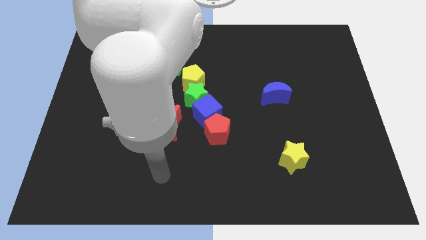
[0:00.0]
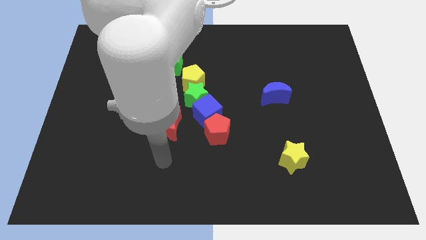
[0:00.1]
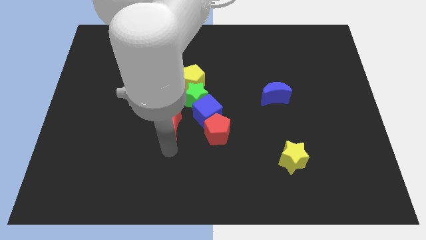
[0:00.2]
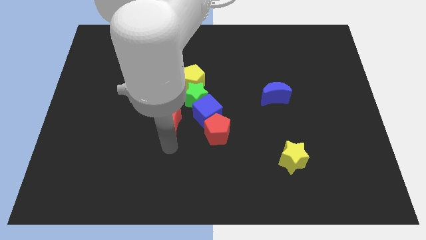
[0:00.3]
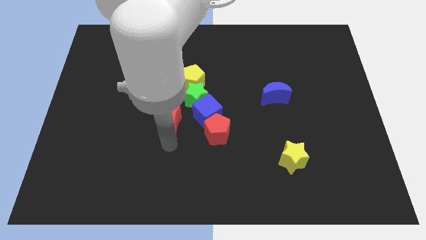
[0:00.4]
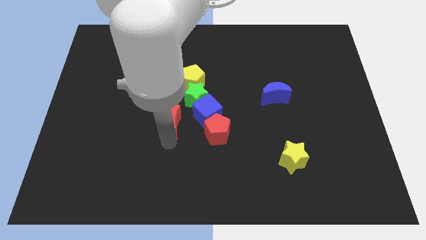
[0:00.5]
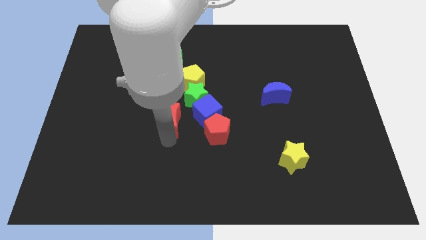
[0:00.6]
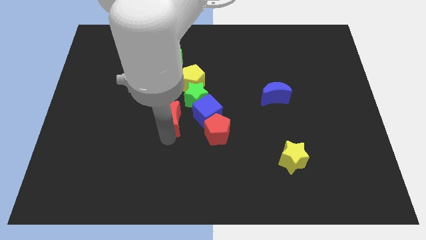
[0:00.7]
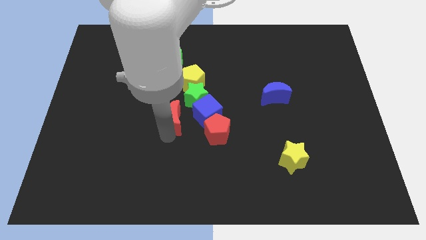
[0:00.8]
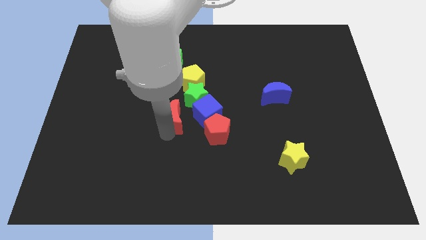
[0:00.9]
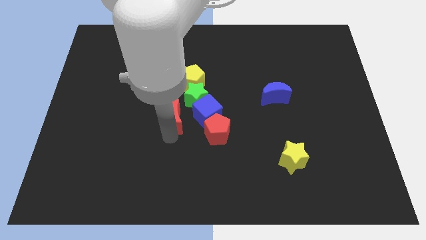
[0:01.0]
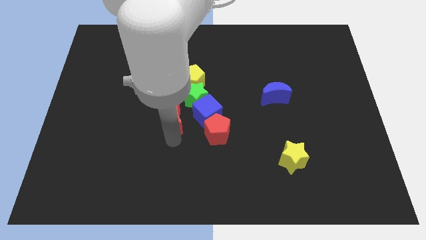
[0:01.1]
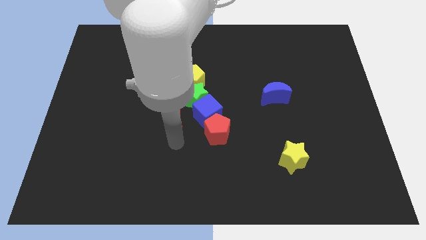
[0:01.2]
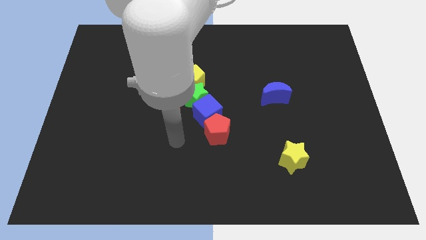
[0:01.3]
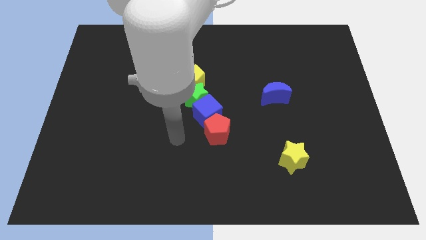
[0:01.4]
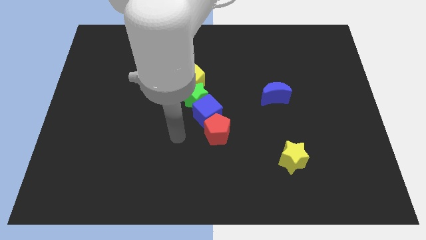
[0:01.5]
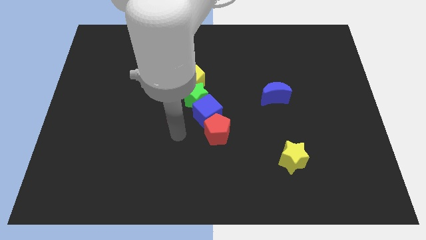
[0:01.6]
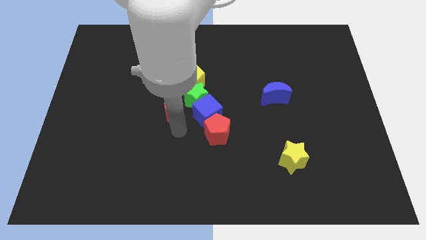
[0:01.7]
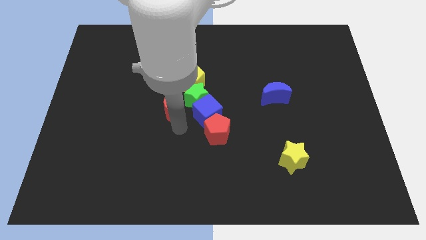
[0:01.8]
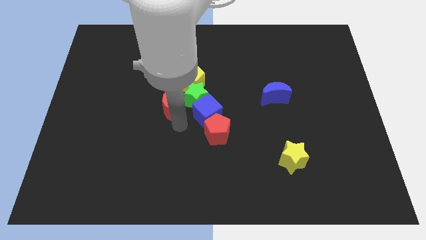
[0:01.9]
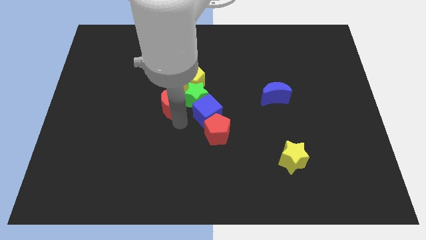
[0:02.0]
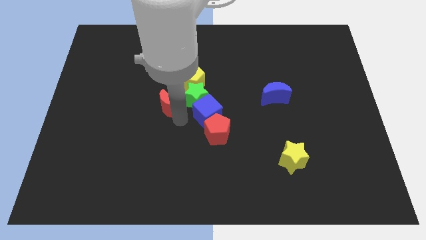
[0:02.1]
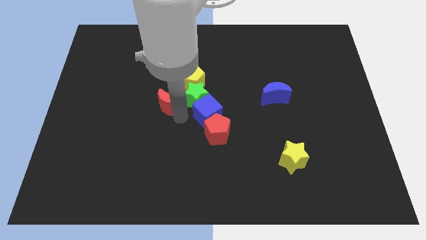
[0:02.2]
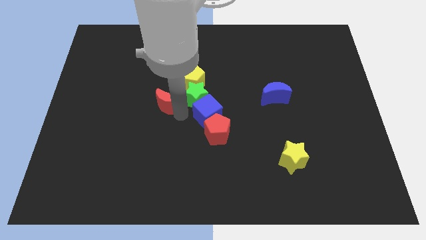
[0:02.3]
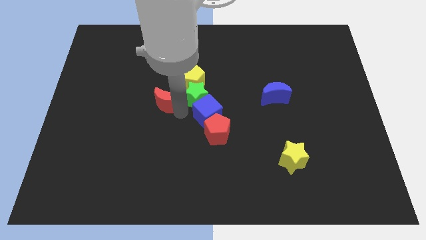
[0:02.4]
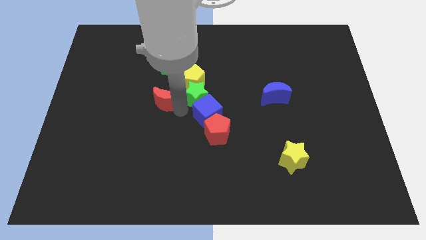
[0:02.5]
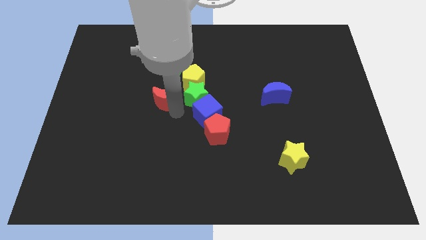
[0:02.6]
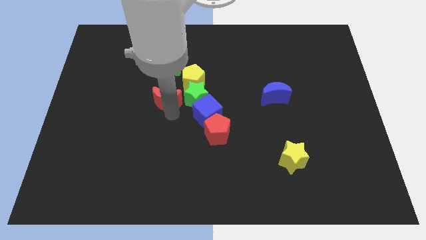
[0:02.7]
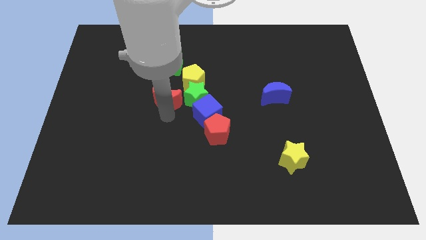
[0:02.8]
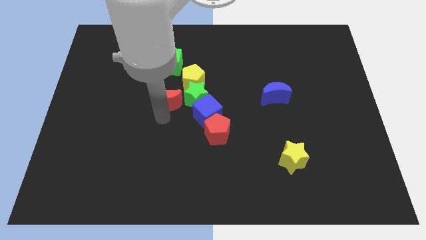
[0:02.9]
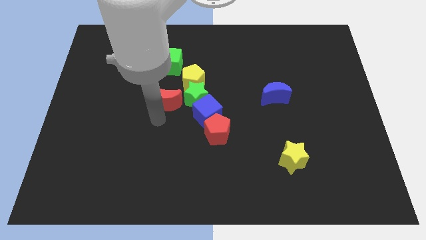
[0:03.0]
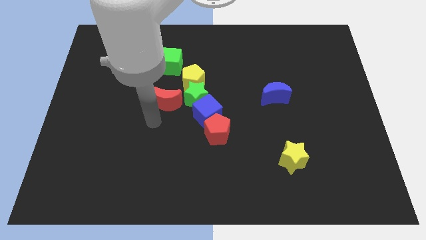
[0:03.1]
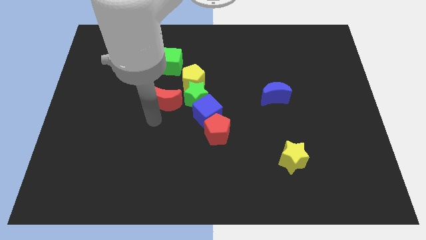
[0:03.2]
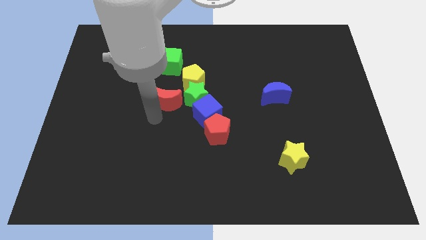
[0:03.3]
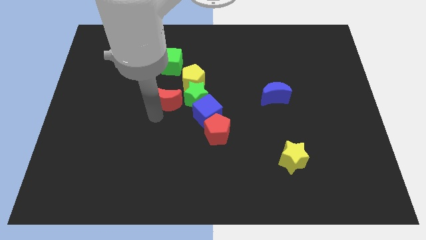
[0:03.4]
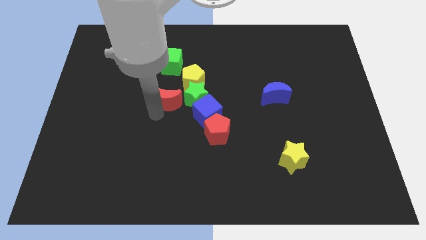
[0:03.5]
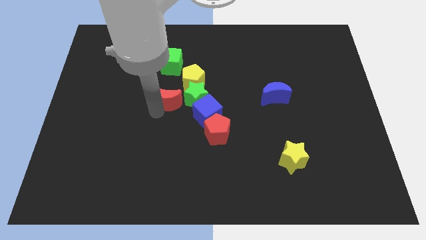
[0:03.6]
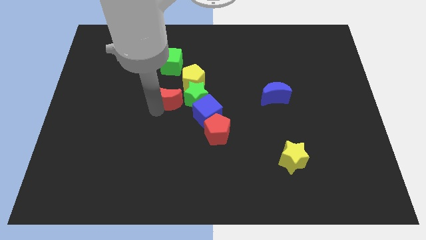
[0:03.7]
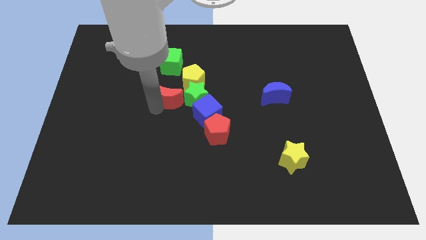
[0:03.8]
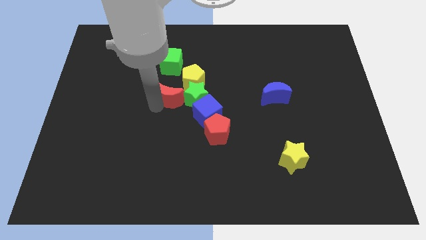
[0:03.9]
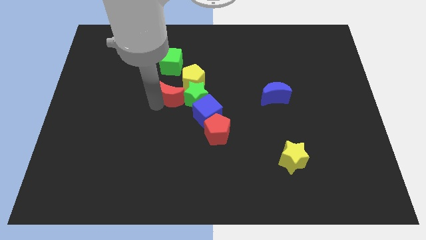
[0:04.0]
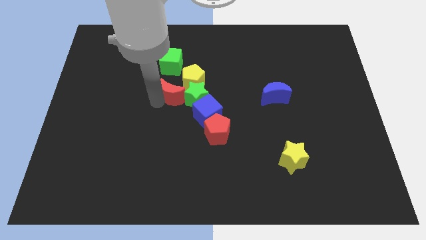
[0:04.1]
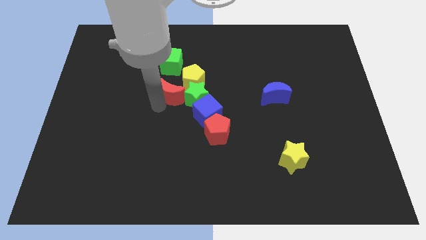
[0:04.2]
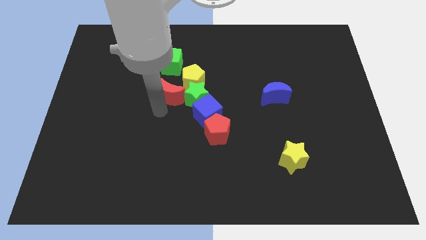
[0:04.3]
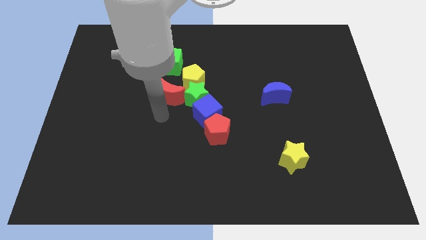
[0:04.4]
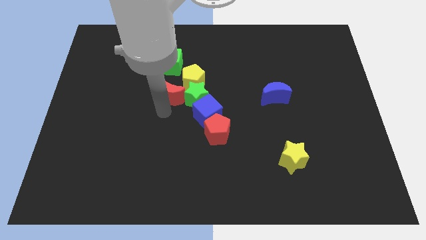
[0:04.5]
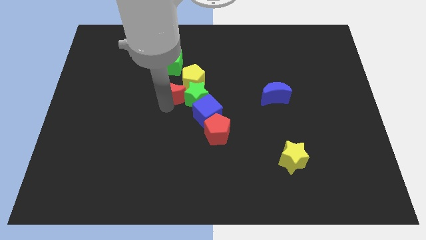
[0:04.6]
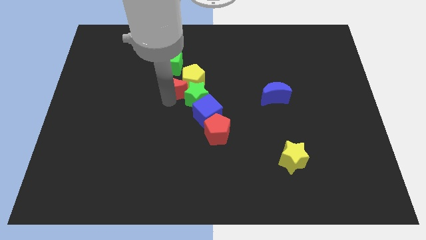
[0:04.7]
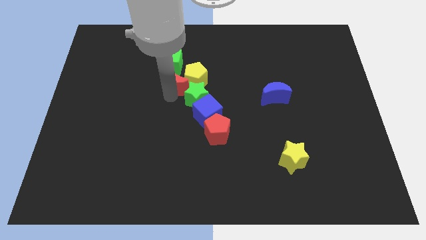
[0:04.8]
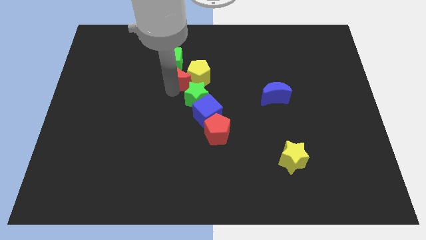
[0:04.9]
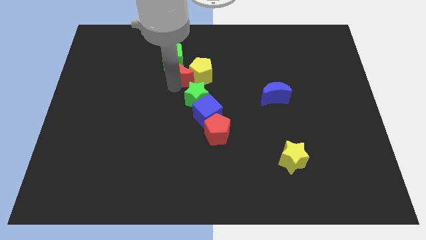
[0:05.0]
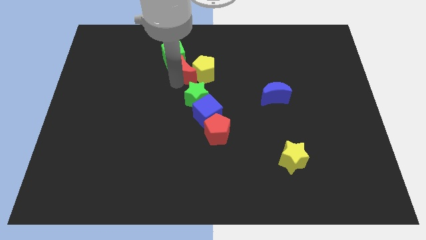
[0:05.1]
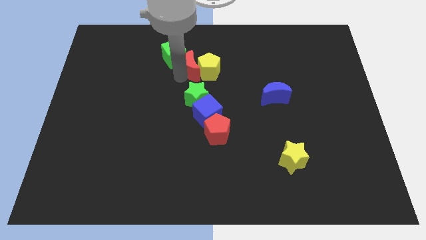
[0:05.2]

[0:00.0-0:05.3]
slide the red moon to the right side of the green cube

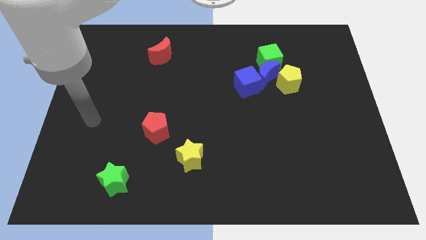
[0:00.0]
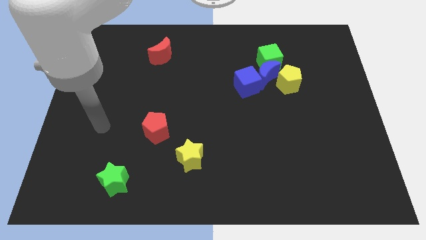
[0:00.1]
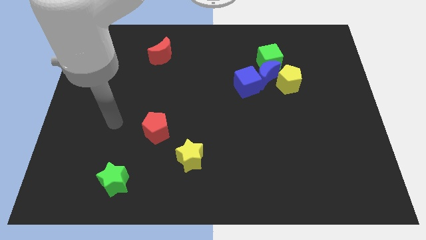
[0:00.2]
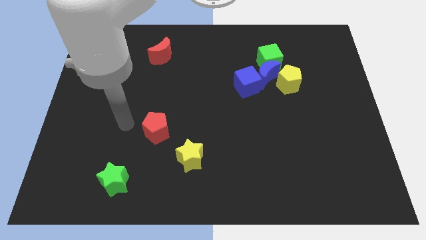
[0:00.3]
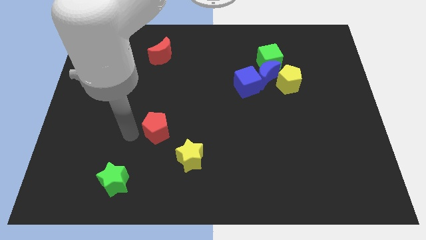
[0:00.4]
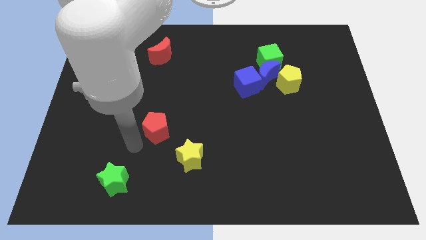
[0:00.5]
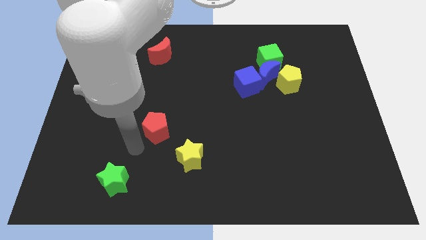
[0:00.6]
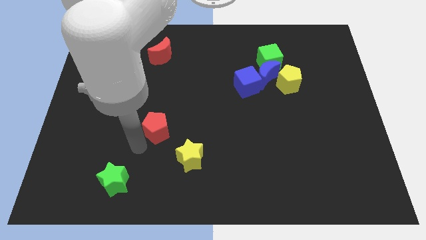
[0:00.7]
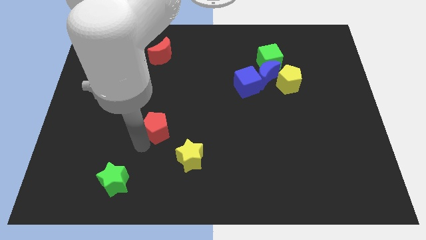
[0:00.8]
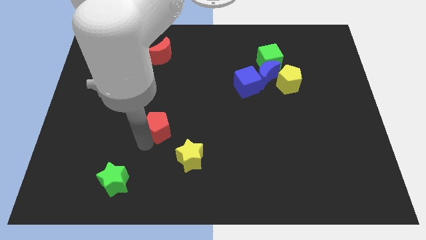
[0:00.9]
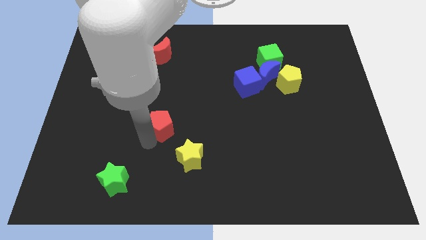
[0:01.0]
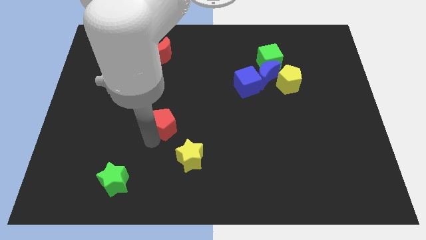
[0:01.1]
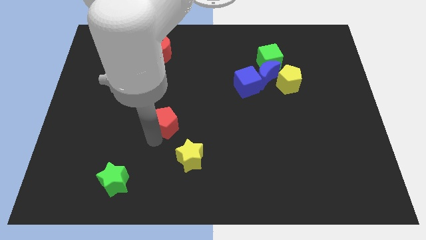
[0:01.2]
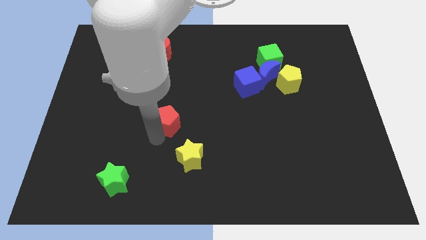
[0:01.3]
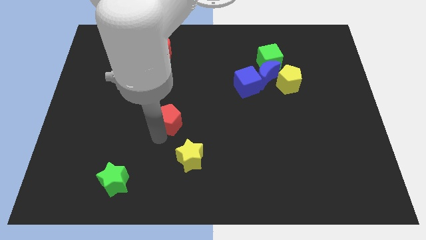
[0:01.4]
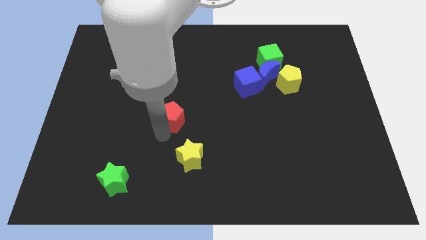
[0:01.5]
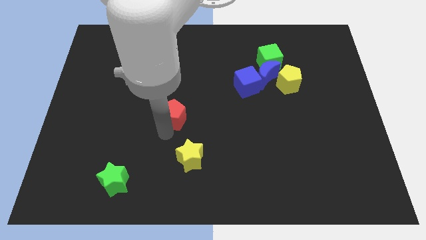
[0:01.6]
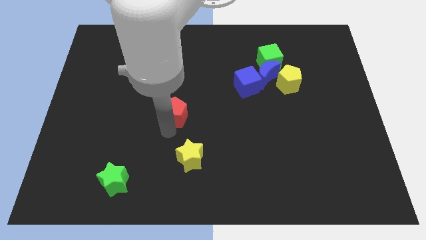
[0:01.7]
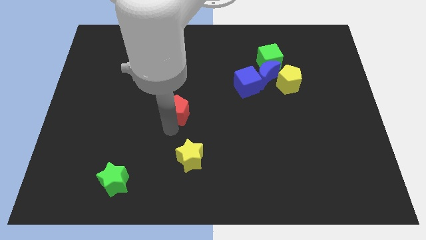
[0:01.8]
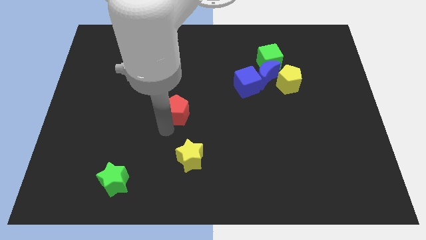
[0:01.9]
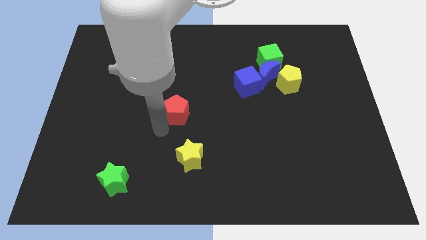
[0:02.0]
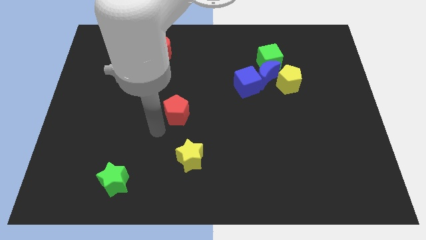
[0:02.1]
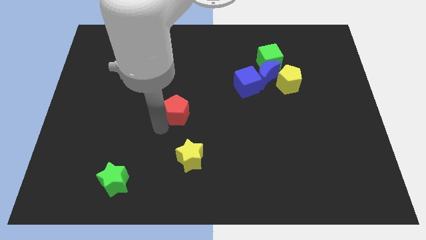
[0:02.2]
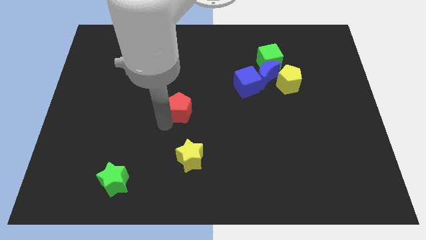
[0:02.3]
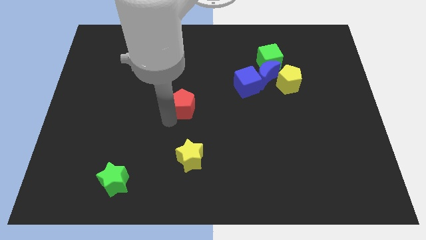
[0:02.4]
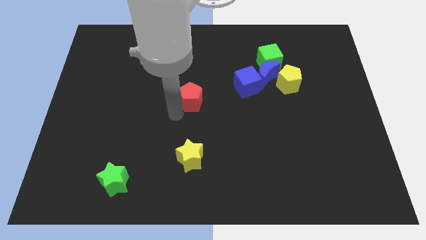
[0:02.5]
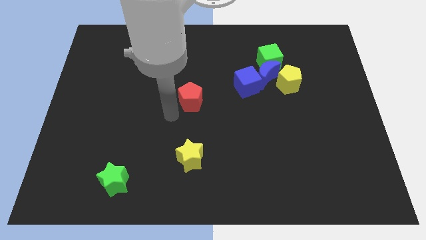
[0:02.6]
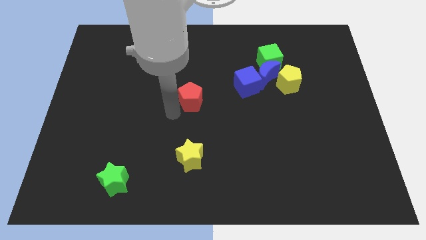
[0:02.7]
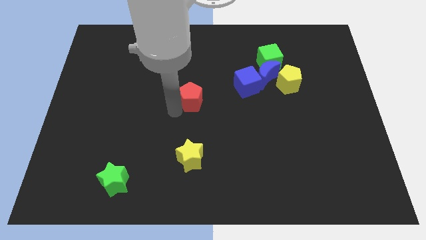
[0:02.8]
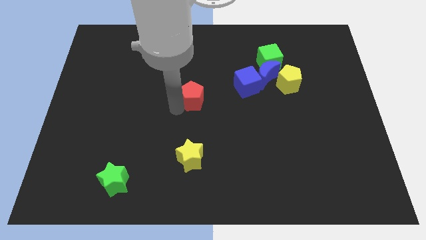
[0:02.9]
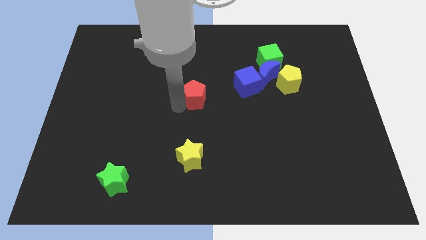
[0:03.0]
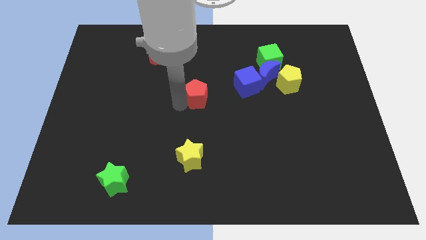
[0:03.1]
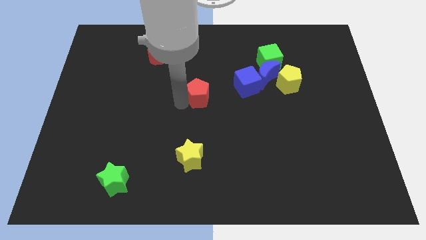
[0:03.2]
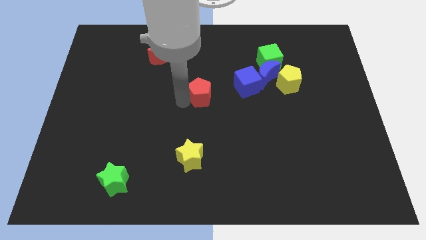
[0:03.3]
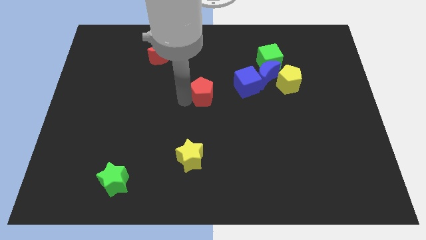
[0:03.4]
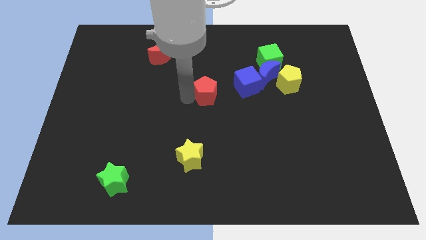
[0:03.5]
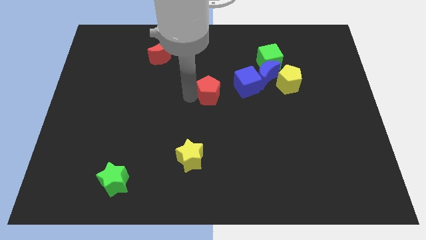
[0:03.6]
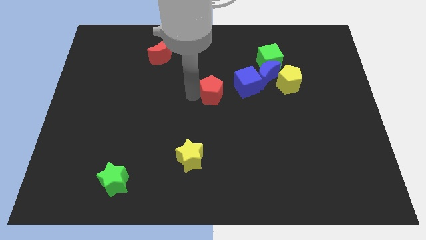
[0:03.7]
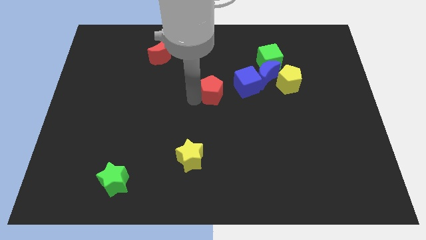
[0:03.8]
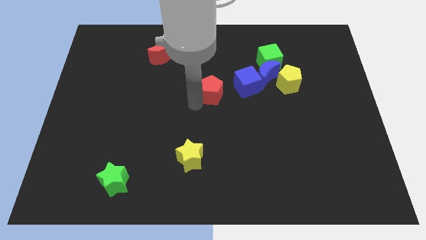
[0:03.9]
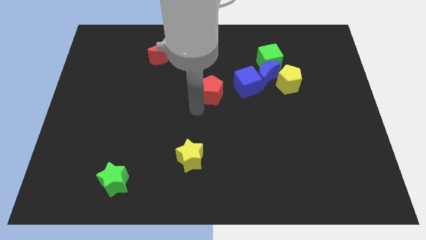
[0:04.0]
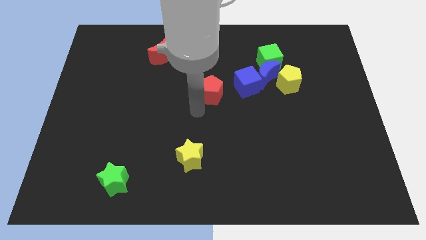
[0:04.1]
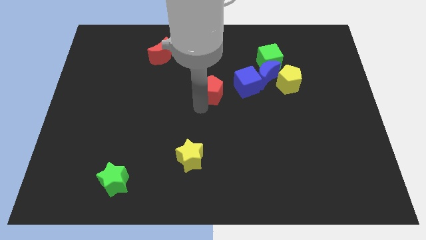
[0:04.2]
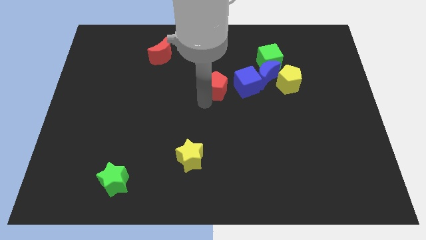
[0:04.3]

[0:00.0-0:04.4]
push the red pentagon just left of the blue moon
